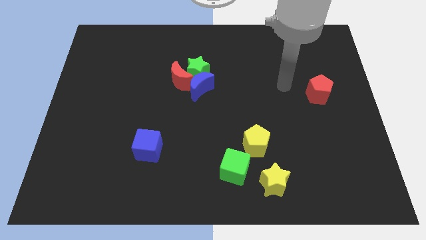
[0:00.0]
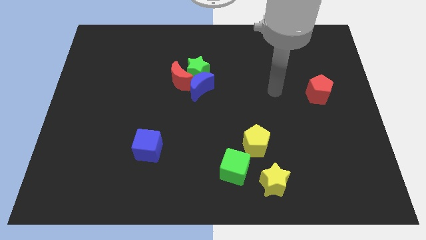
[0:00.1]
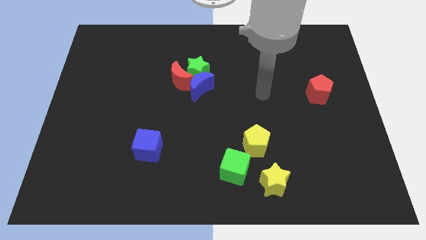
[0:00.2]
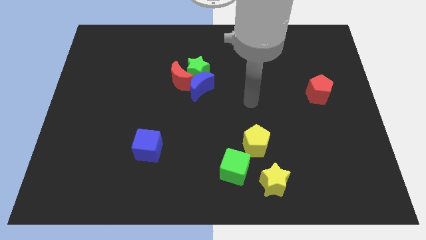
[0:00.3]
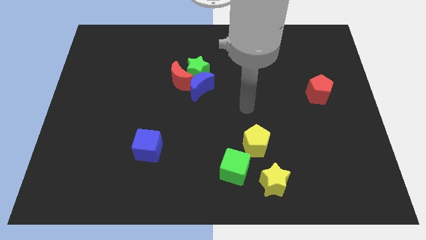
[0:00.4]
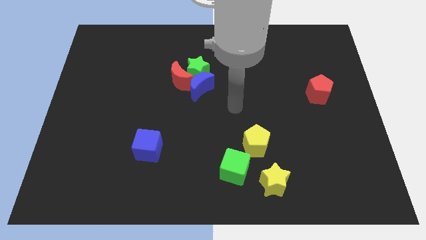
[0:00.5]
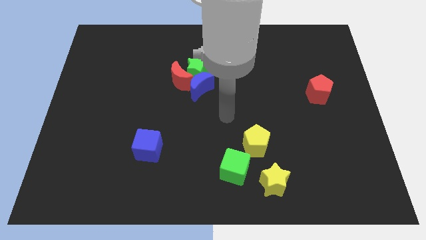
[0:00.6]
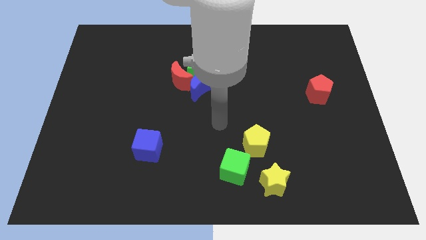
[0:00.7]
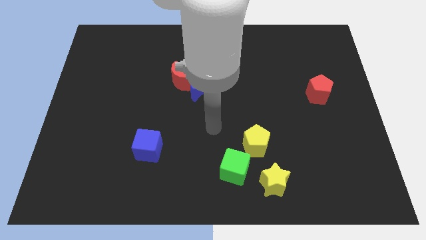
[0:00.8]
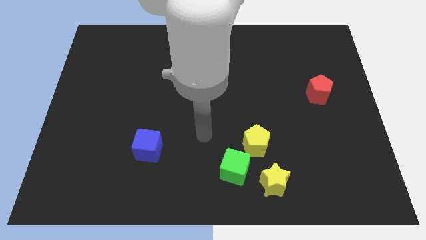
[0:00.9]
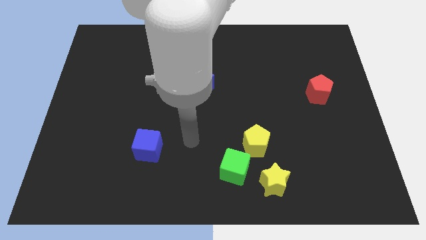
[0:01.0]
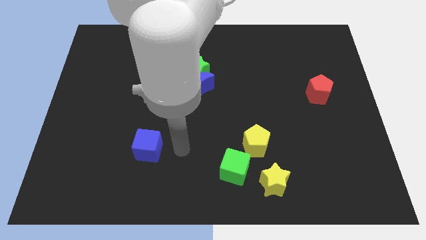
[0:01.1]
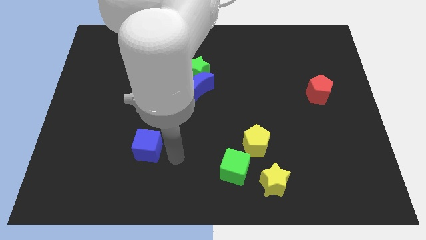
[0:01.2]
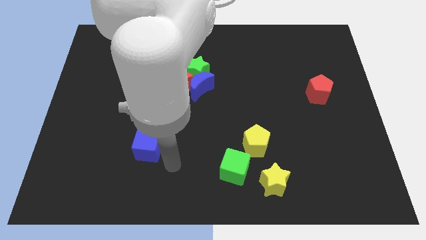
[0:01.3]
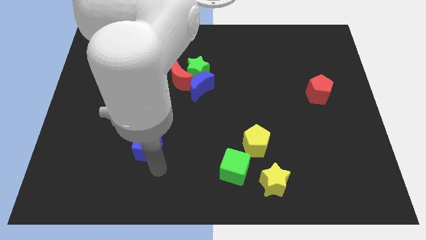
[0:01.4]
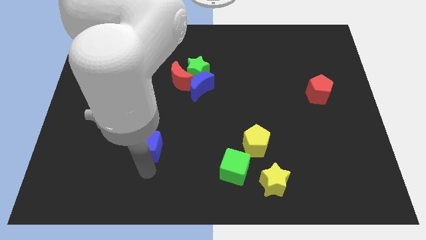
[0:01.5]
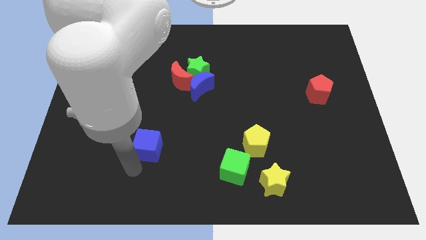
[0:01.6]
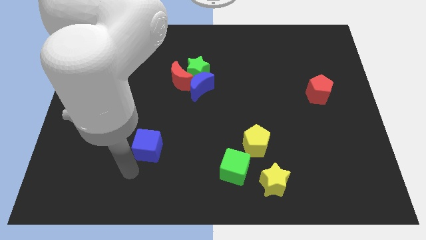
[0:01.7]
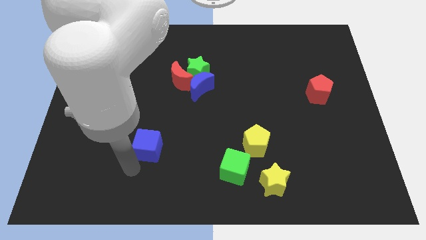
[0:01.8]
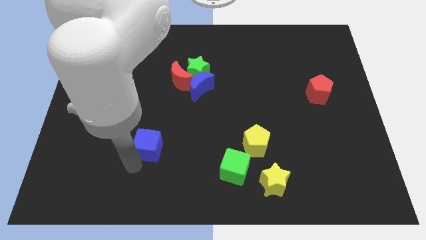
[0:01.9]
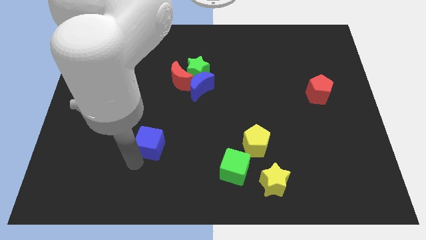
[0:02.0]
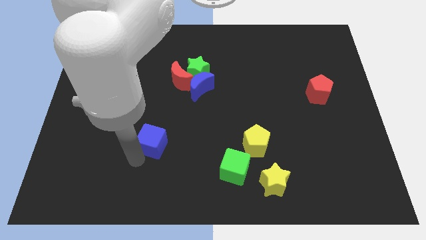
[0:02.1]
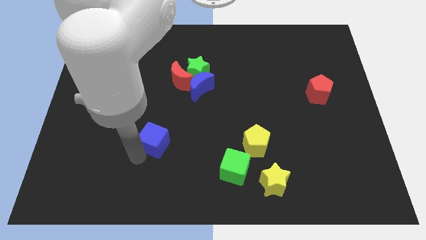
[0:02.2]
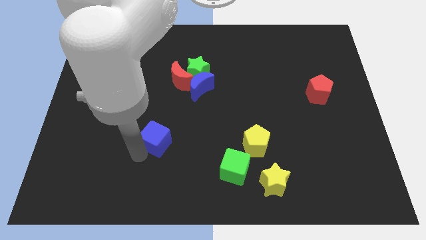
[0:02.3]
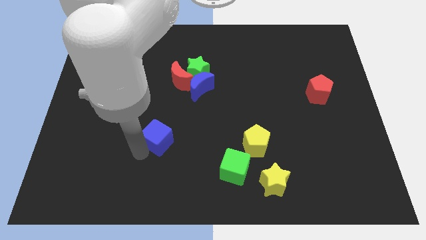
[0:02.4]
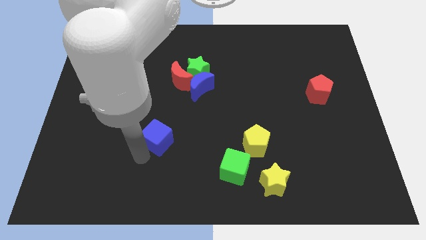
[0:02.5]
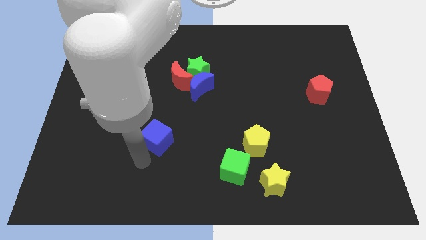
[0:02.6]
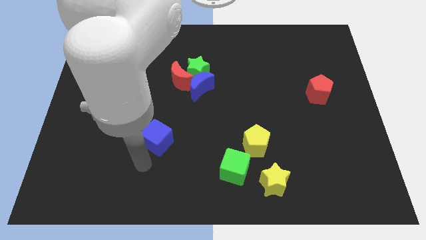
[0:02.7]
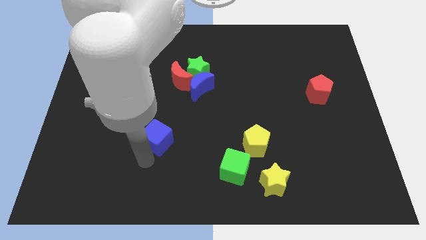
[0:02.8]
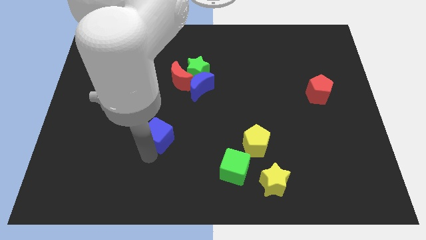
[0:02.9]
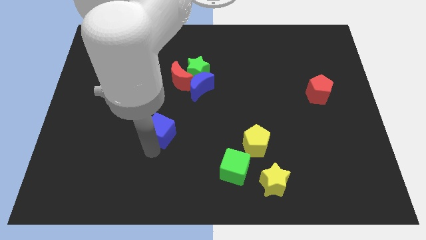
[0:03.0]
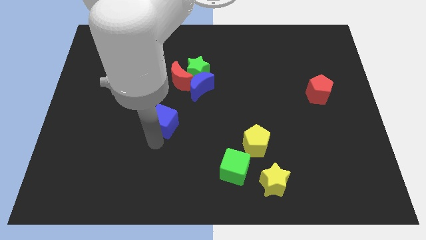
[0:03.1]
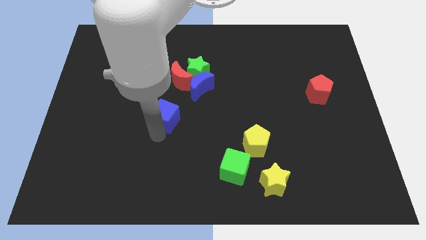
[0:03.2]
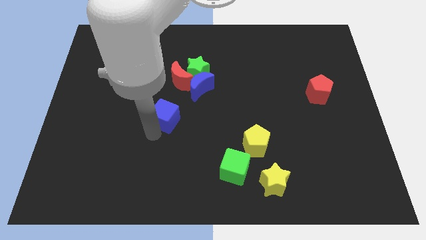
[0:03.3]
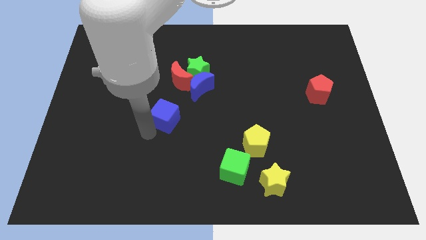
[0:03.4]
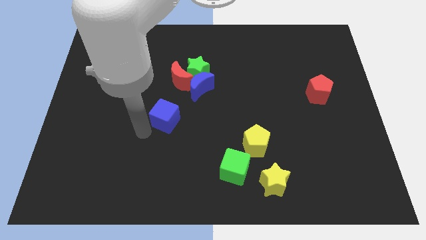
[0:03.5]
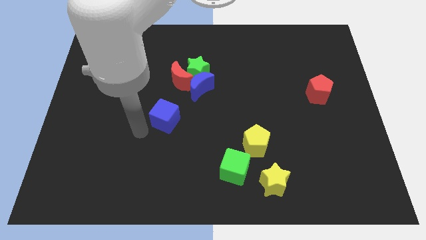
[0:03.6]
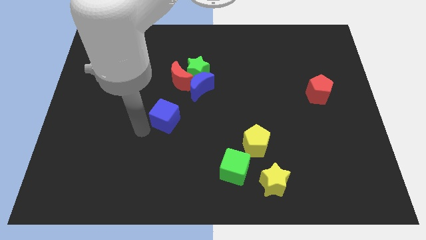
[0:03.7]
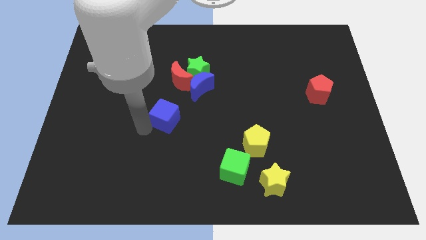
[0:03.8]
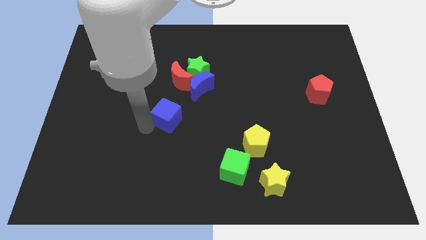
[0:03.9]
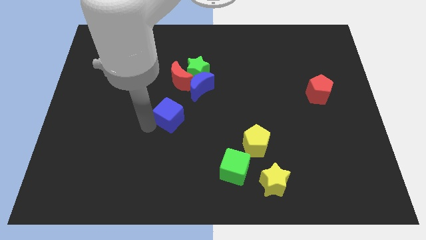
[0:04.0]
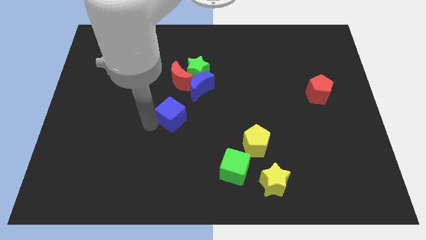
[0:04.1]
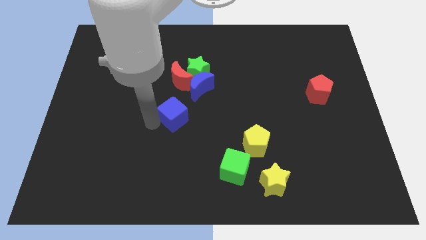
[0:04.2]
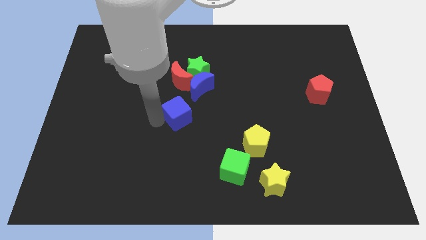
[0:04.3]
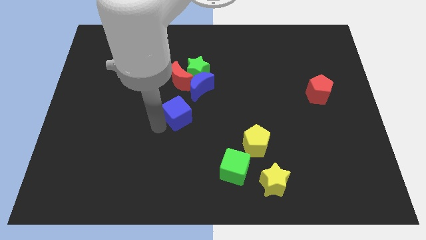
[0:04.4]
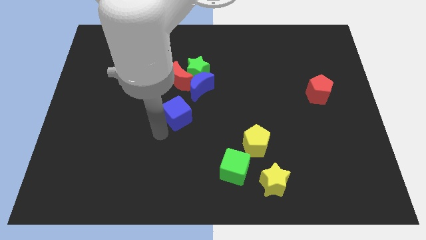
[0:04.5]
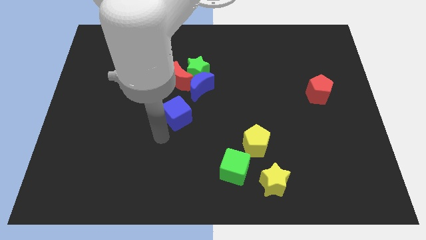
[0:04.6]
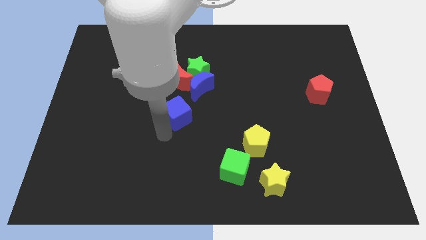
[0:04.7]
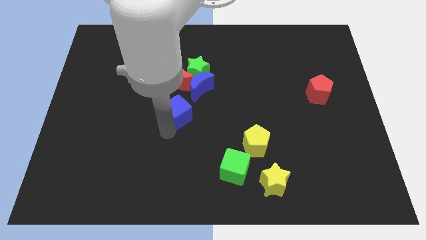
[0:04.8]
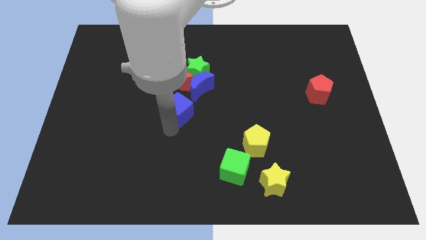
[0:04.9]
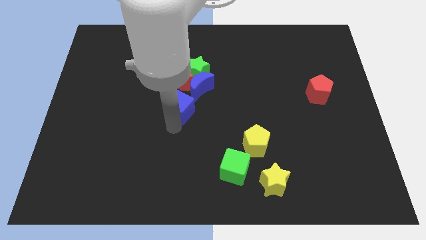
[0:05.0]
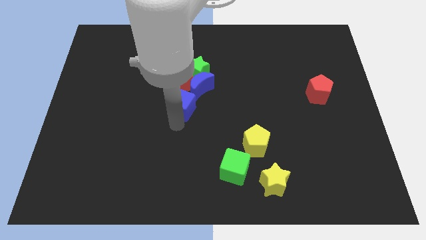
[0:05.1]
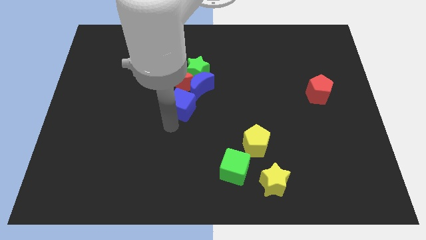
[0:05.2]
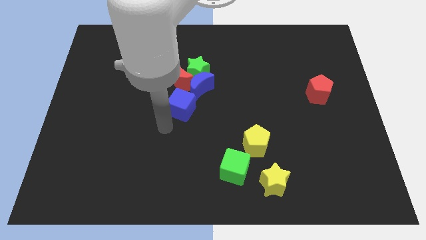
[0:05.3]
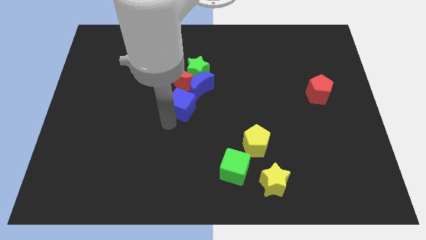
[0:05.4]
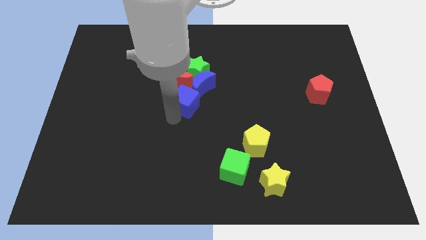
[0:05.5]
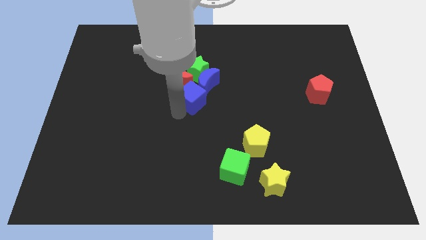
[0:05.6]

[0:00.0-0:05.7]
push the blue cube close to the blue moon

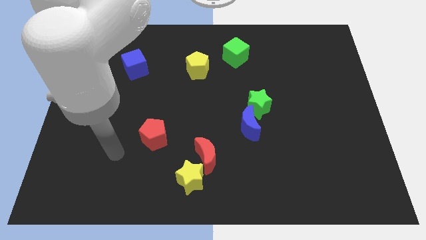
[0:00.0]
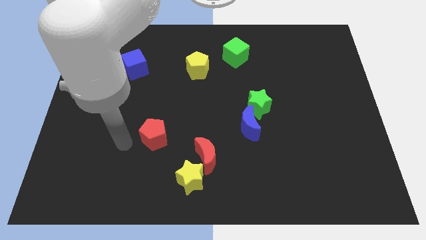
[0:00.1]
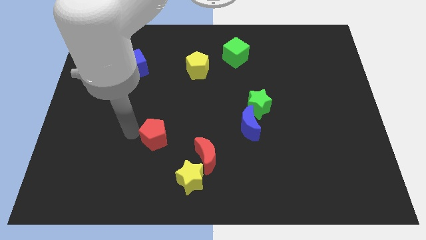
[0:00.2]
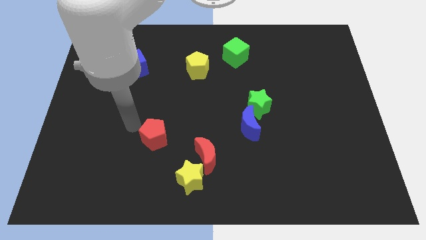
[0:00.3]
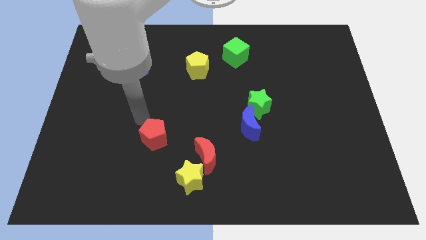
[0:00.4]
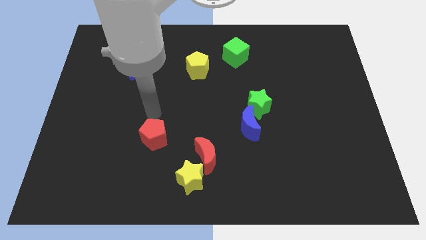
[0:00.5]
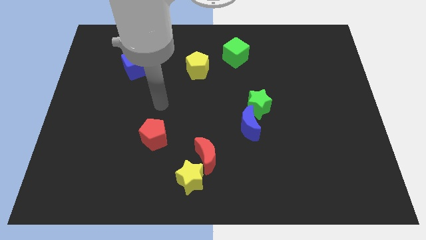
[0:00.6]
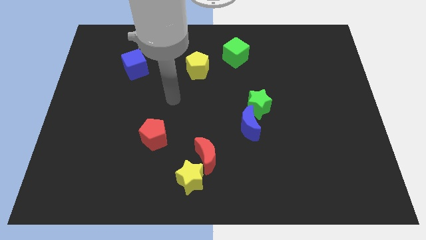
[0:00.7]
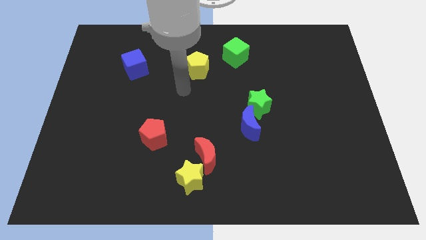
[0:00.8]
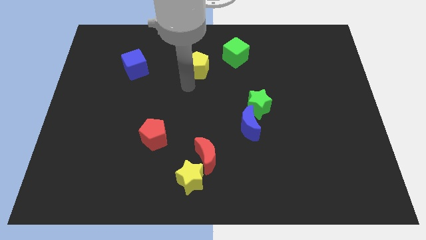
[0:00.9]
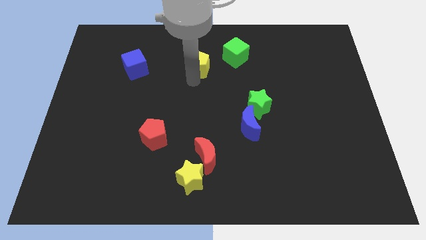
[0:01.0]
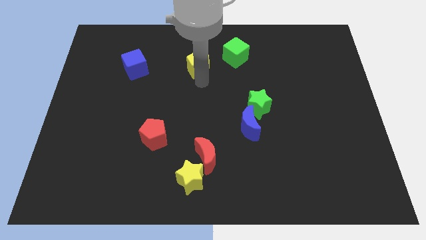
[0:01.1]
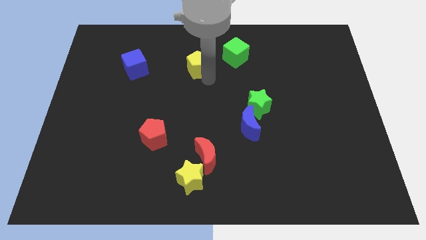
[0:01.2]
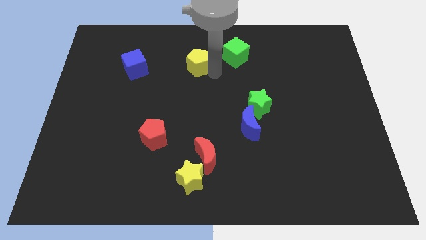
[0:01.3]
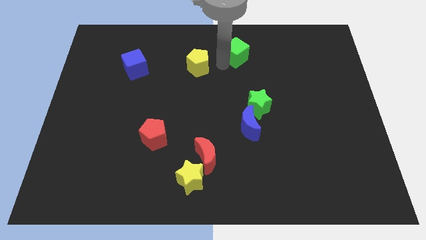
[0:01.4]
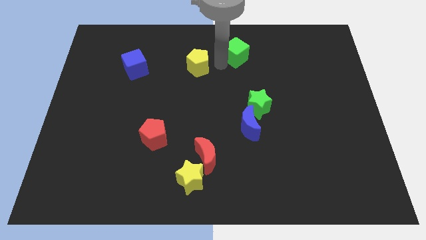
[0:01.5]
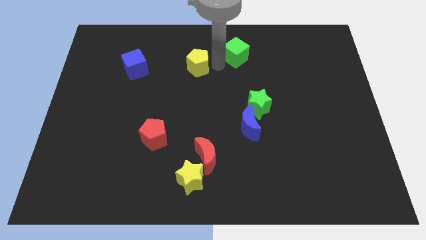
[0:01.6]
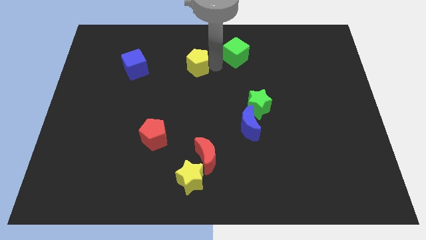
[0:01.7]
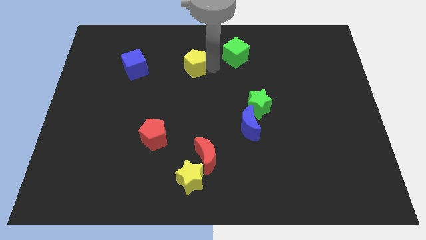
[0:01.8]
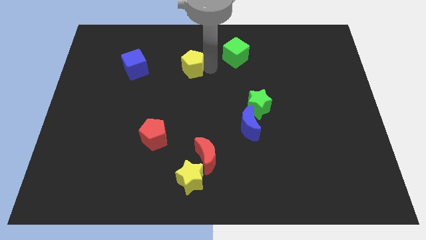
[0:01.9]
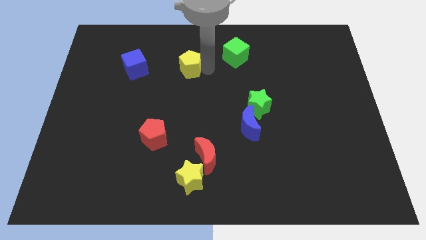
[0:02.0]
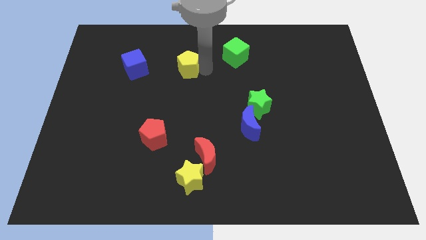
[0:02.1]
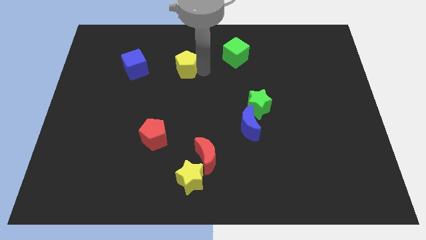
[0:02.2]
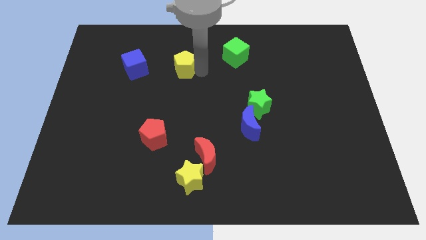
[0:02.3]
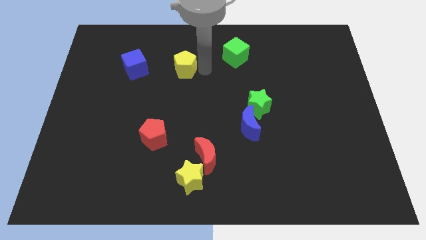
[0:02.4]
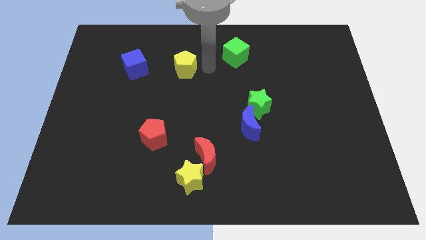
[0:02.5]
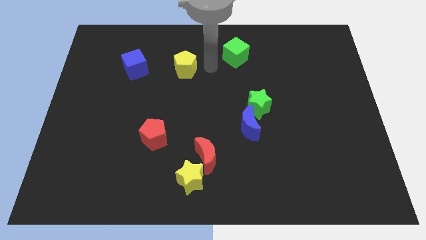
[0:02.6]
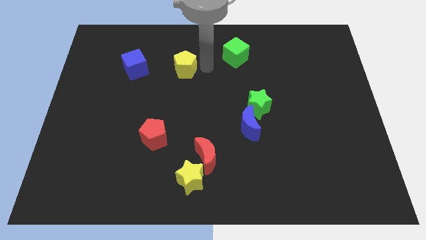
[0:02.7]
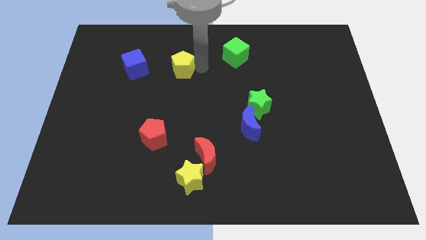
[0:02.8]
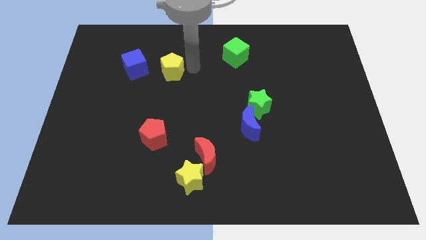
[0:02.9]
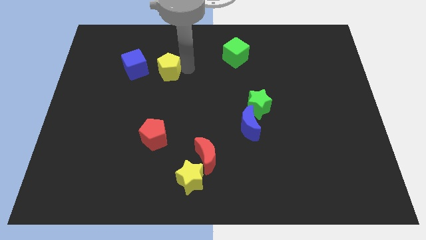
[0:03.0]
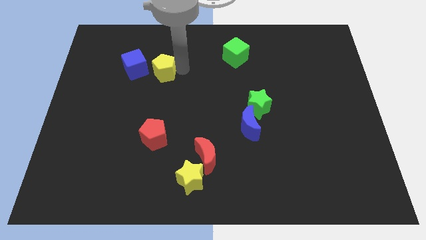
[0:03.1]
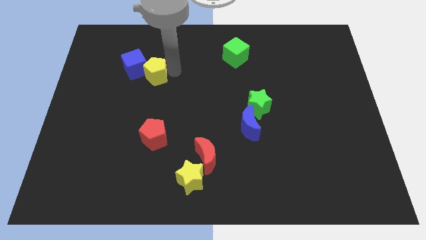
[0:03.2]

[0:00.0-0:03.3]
put the yellow pentagon towards the blue cube
